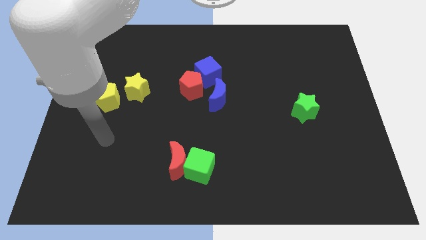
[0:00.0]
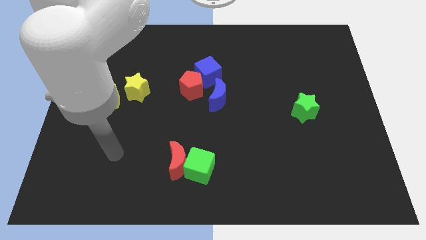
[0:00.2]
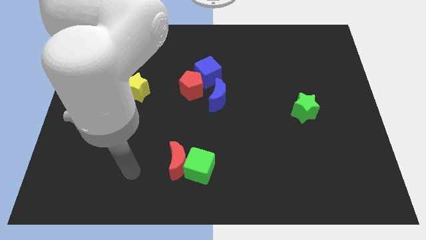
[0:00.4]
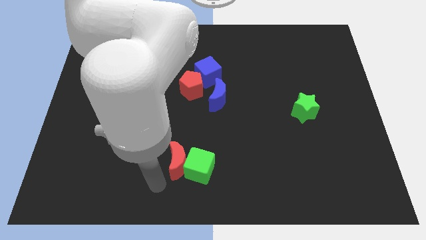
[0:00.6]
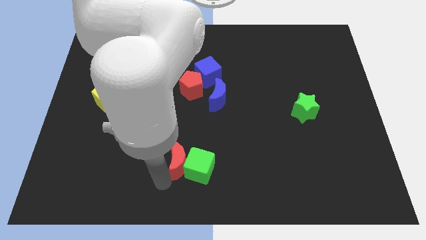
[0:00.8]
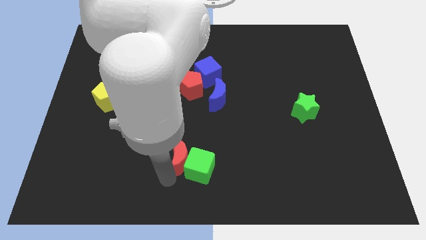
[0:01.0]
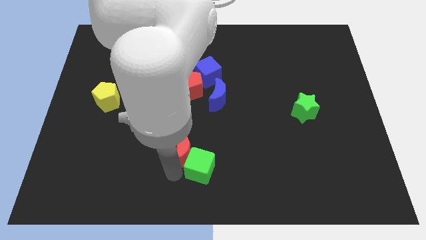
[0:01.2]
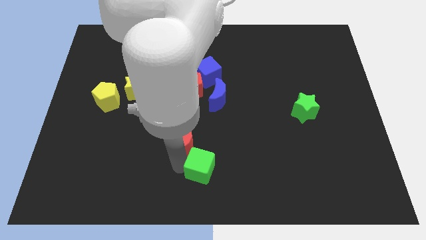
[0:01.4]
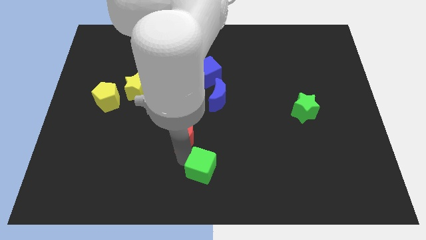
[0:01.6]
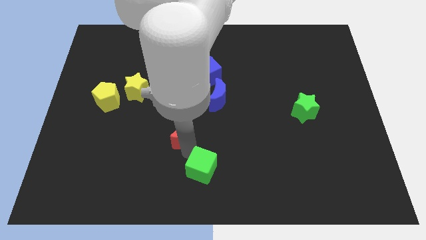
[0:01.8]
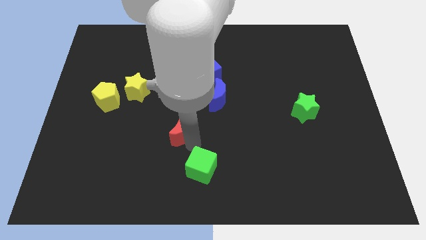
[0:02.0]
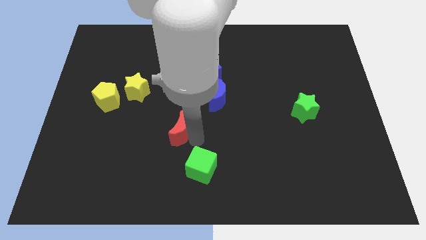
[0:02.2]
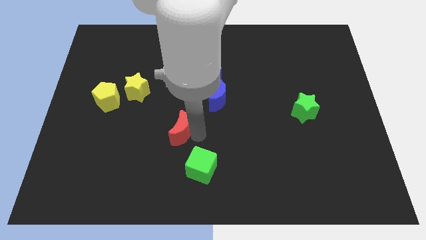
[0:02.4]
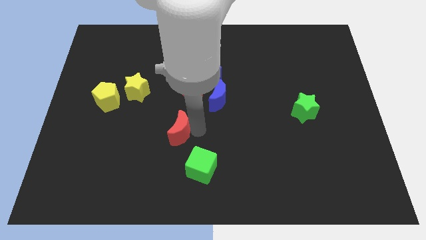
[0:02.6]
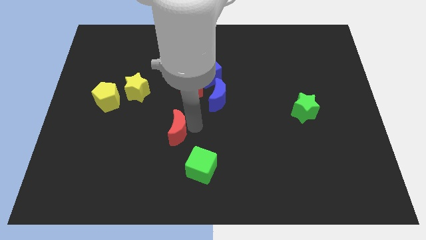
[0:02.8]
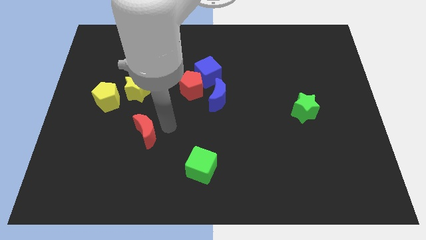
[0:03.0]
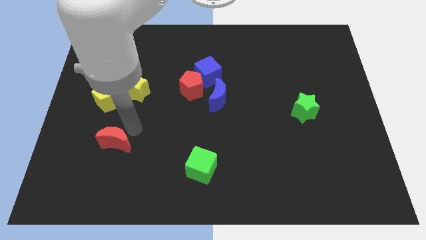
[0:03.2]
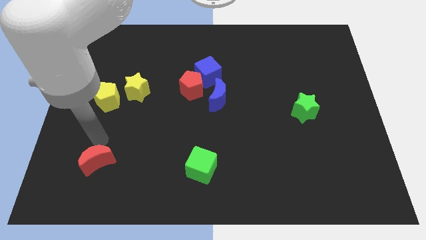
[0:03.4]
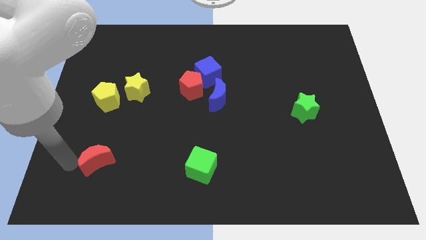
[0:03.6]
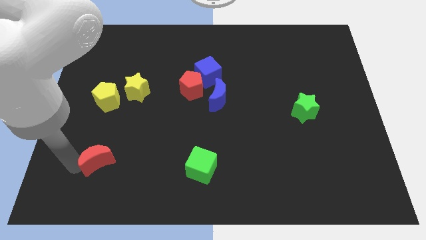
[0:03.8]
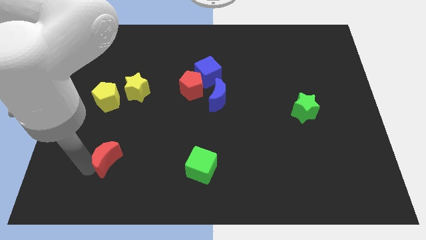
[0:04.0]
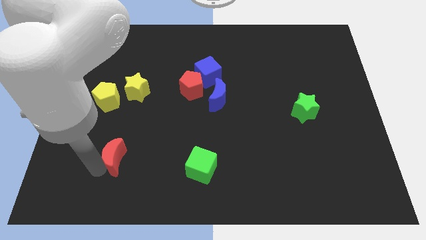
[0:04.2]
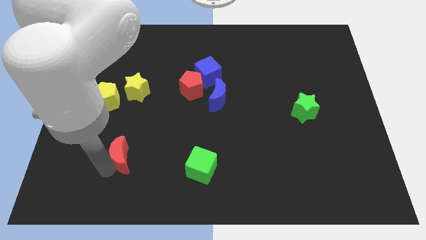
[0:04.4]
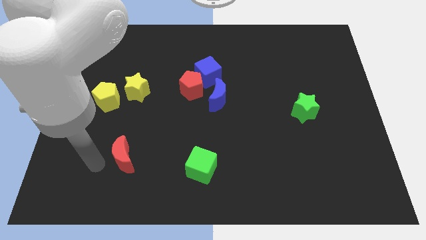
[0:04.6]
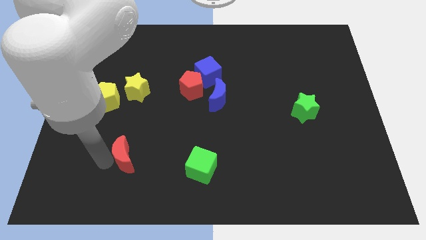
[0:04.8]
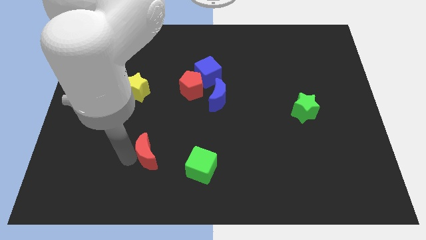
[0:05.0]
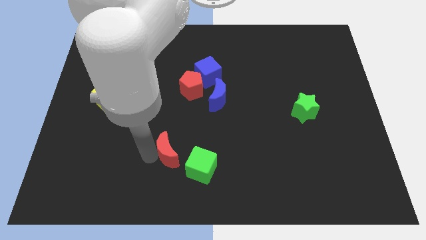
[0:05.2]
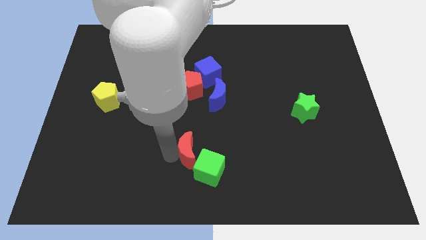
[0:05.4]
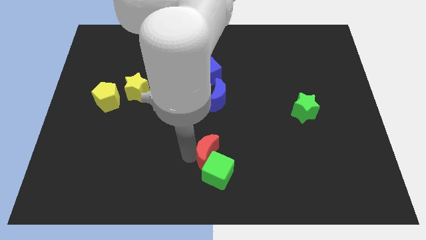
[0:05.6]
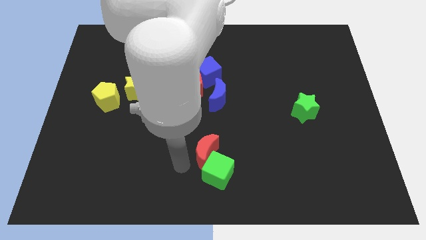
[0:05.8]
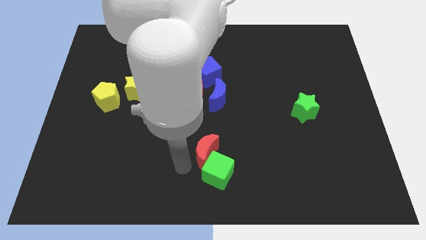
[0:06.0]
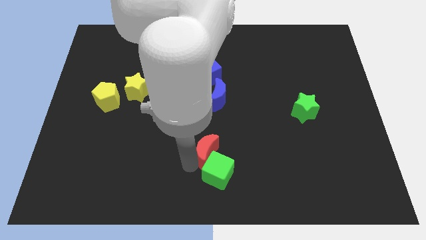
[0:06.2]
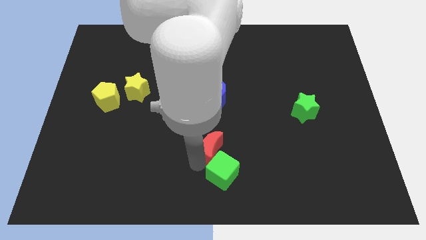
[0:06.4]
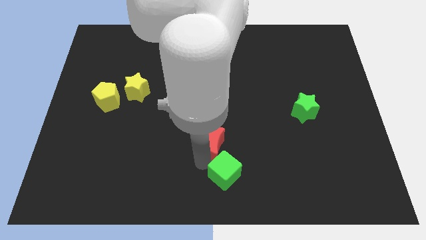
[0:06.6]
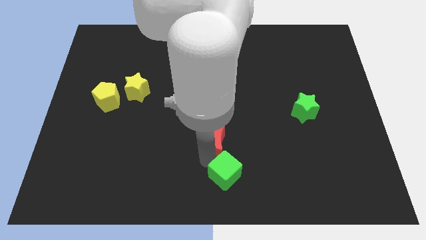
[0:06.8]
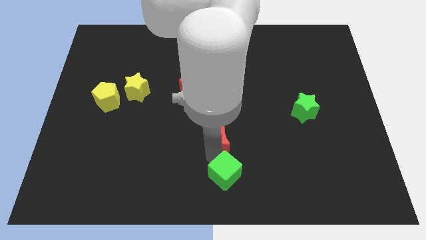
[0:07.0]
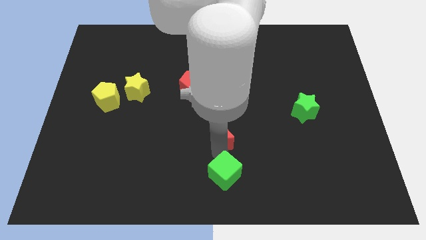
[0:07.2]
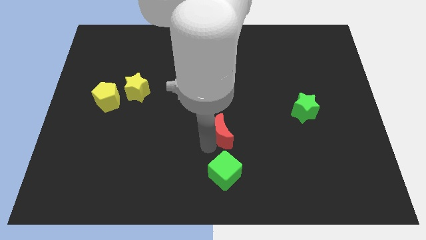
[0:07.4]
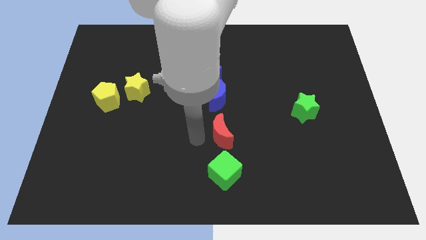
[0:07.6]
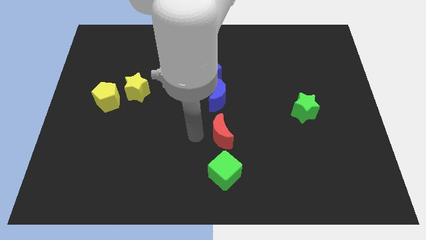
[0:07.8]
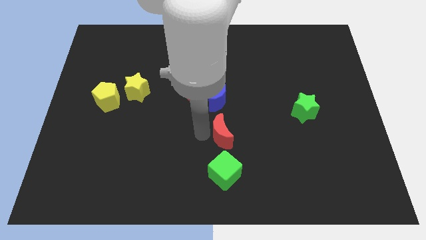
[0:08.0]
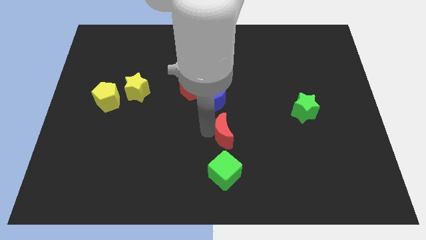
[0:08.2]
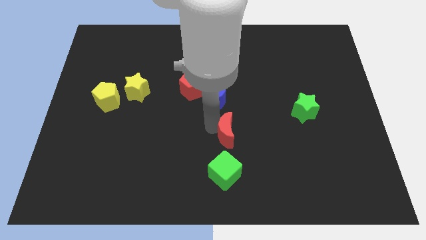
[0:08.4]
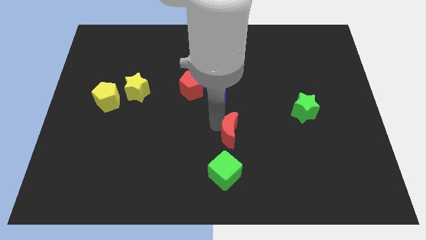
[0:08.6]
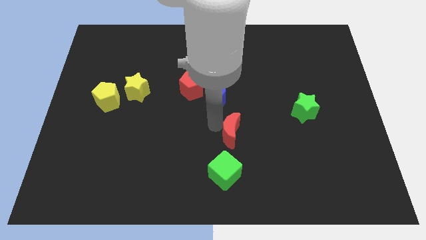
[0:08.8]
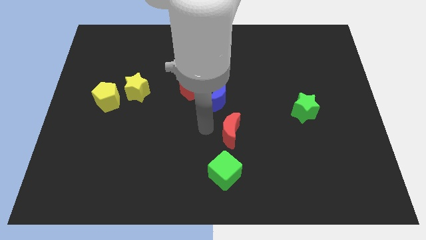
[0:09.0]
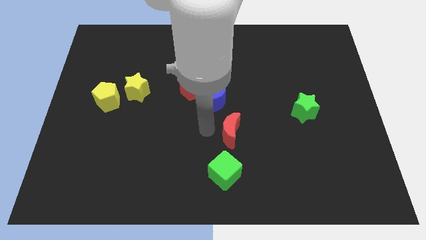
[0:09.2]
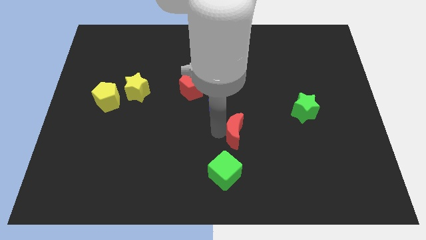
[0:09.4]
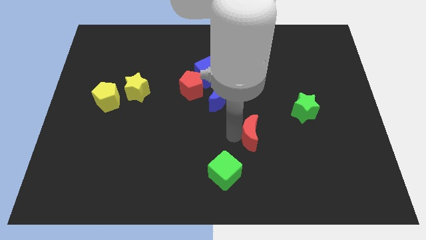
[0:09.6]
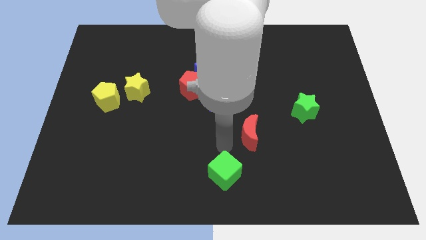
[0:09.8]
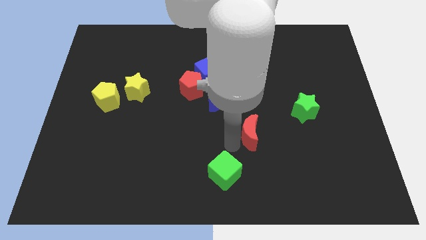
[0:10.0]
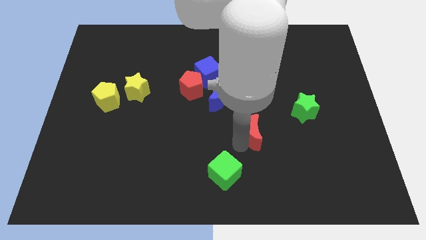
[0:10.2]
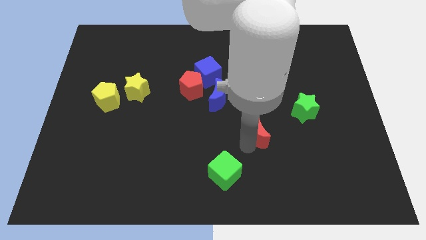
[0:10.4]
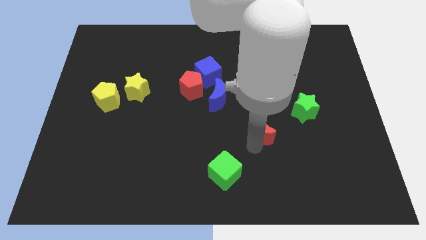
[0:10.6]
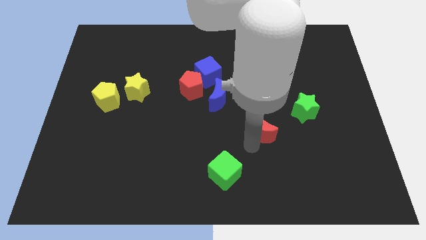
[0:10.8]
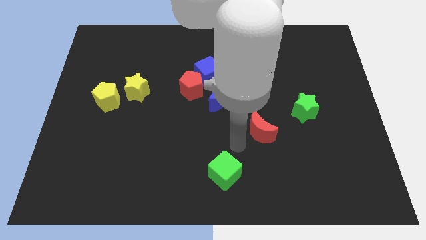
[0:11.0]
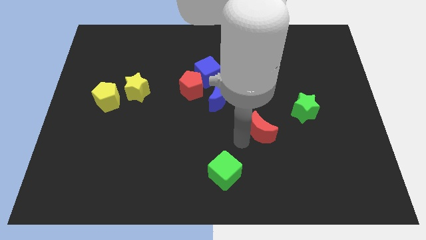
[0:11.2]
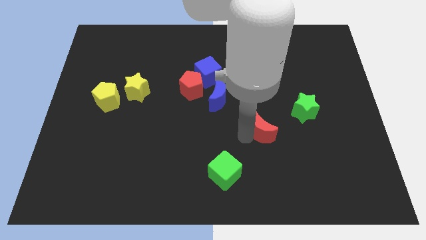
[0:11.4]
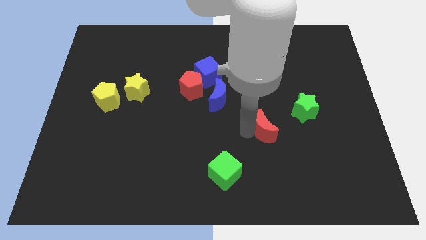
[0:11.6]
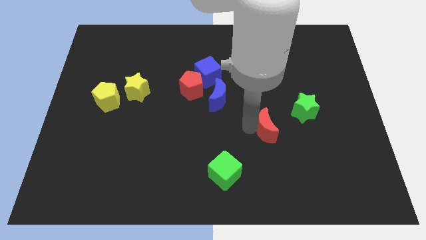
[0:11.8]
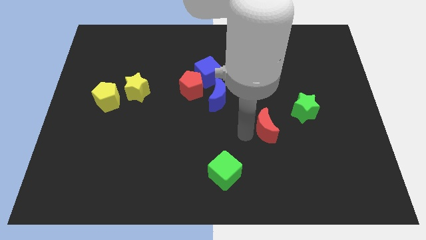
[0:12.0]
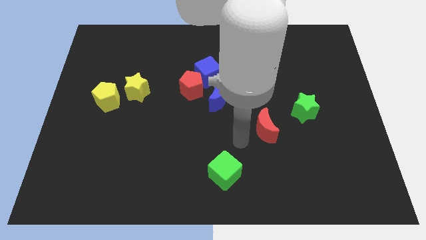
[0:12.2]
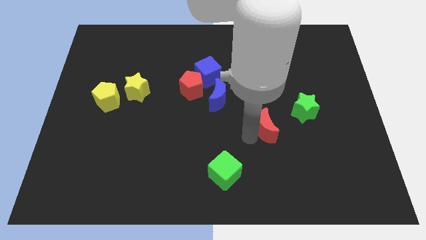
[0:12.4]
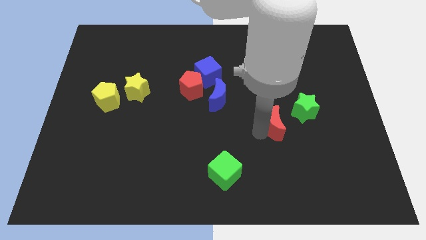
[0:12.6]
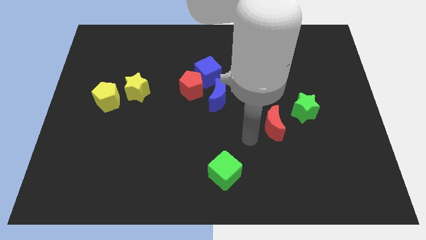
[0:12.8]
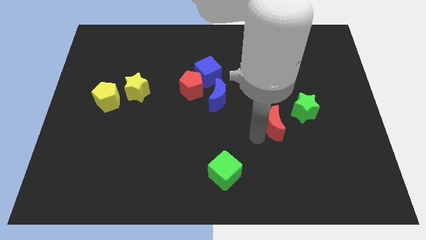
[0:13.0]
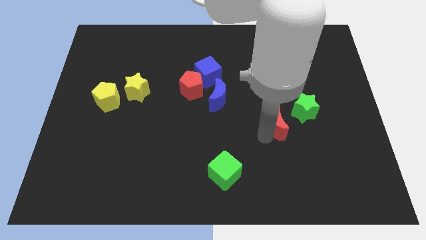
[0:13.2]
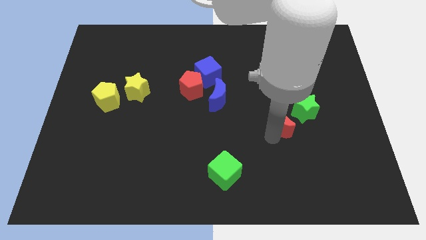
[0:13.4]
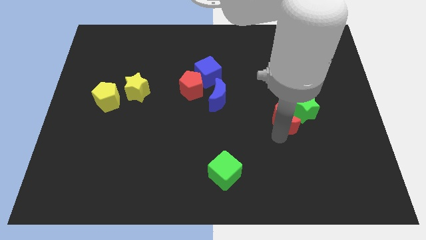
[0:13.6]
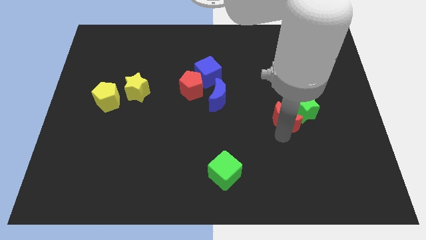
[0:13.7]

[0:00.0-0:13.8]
move the red moon to the green star
